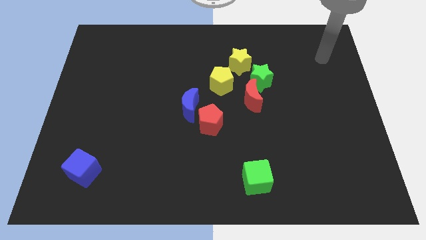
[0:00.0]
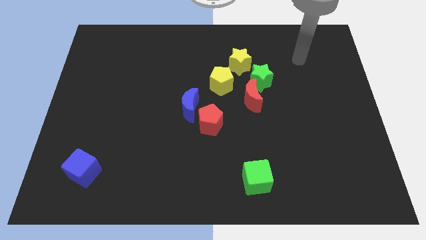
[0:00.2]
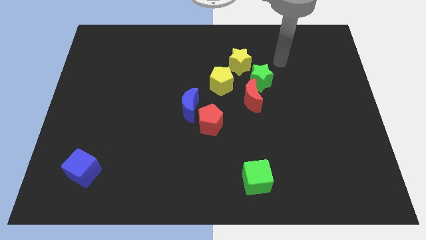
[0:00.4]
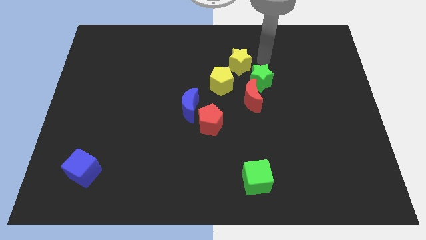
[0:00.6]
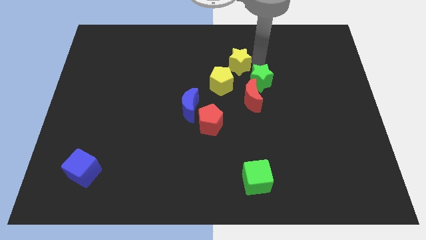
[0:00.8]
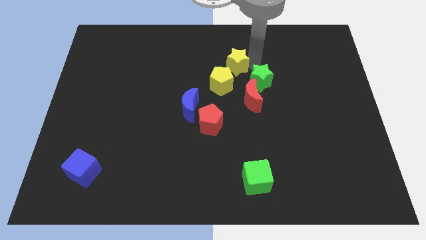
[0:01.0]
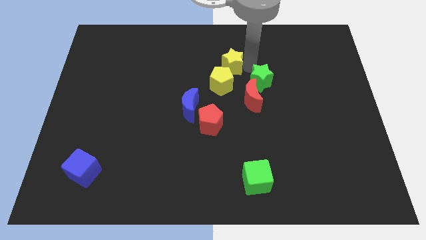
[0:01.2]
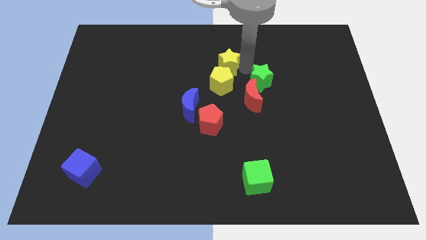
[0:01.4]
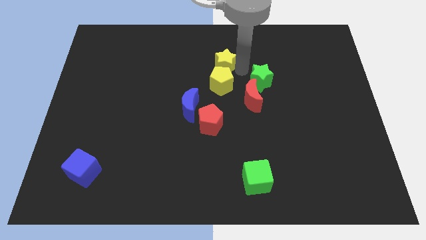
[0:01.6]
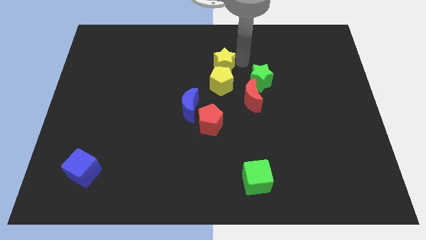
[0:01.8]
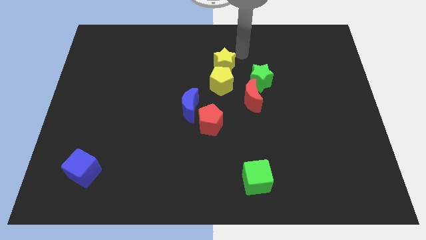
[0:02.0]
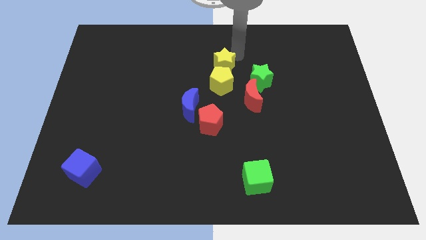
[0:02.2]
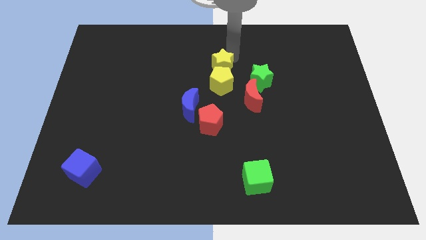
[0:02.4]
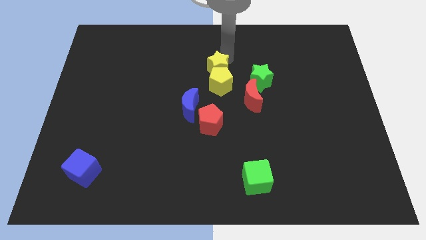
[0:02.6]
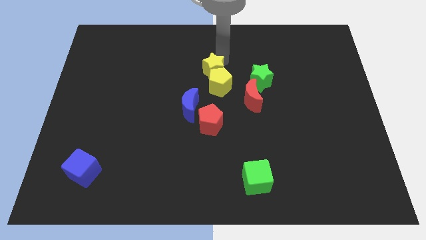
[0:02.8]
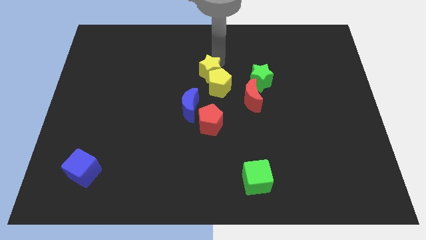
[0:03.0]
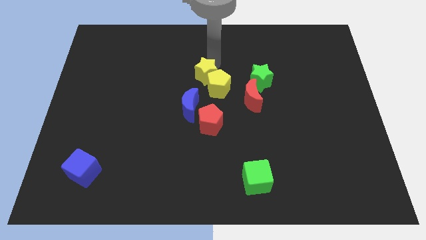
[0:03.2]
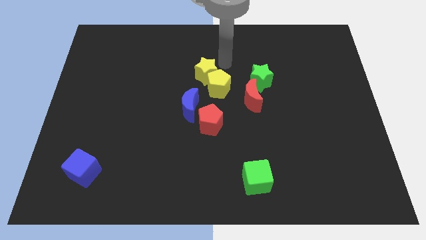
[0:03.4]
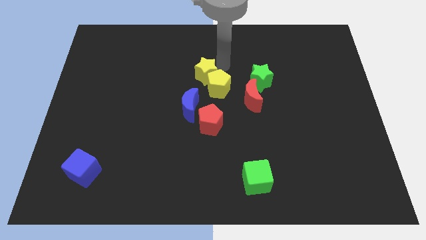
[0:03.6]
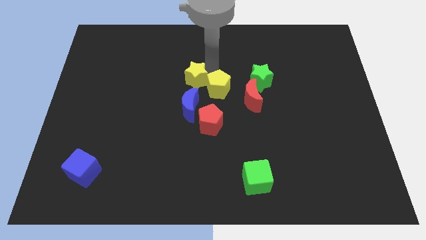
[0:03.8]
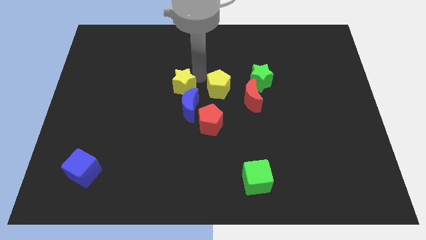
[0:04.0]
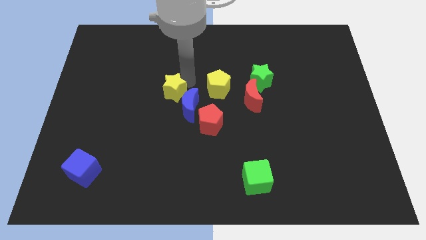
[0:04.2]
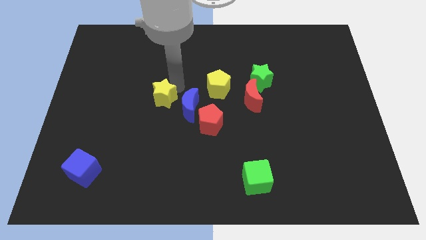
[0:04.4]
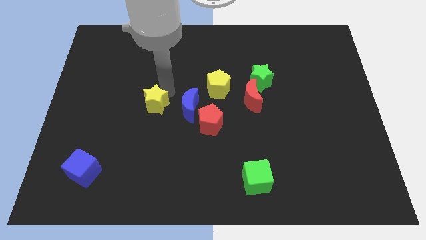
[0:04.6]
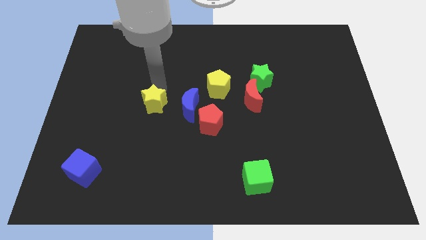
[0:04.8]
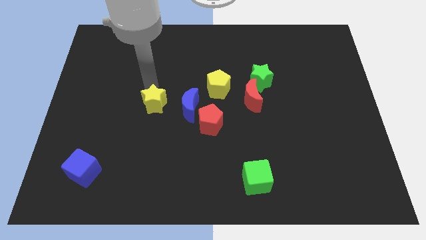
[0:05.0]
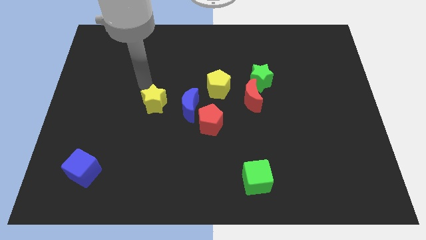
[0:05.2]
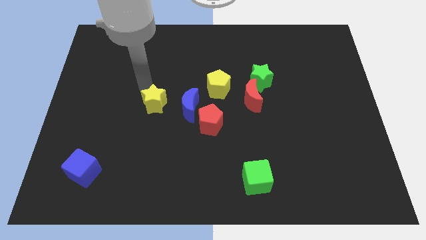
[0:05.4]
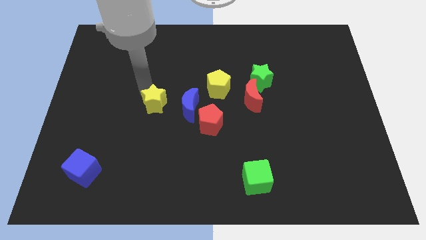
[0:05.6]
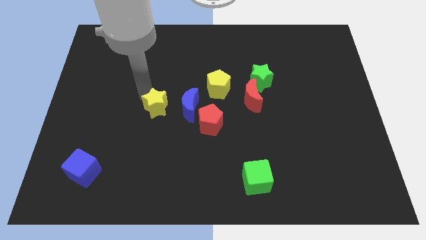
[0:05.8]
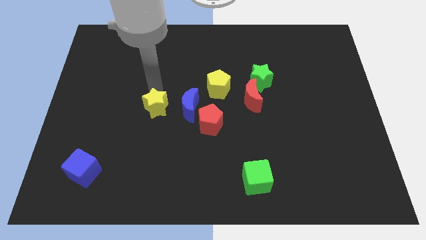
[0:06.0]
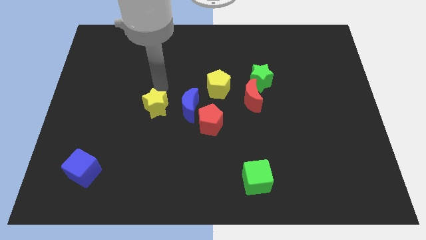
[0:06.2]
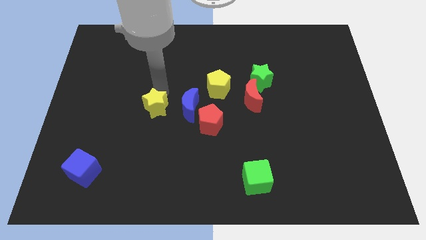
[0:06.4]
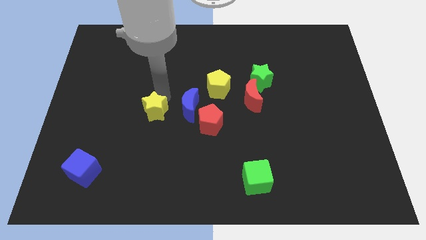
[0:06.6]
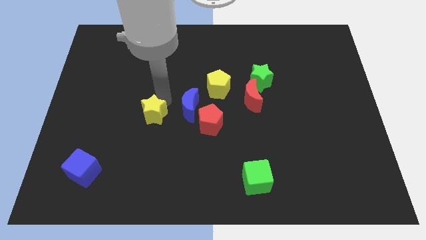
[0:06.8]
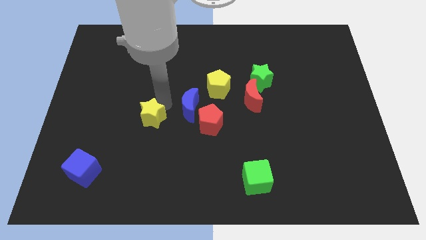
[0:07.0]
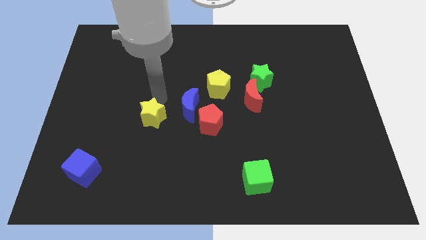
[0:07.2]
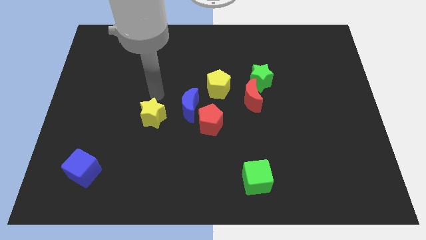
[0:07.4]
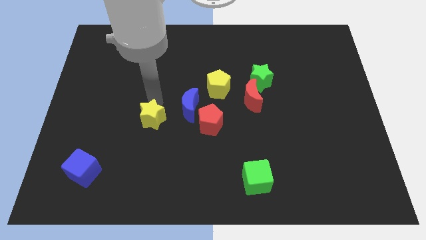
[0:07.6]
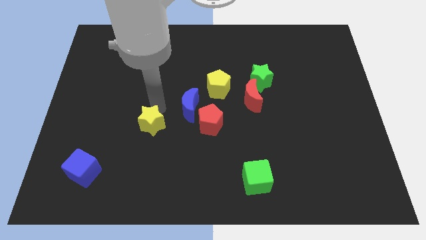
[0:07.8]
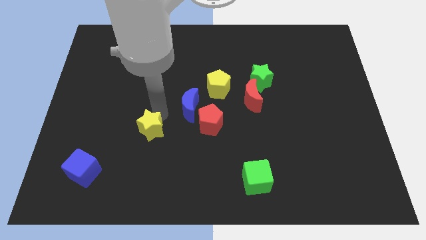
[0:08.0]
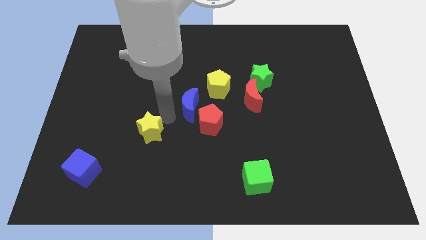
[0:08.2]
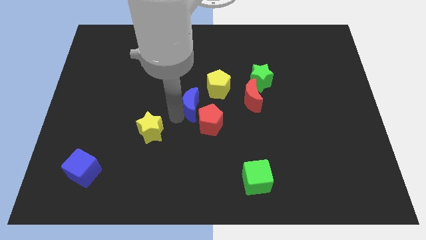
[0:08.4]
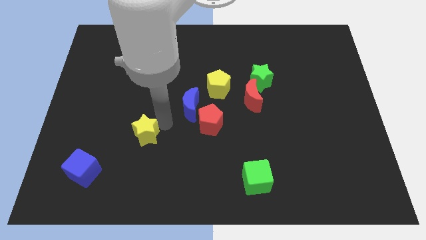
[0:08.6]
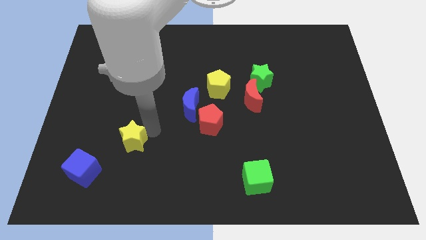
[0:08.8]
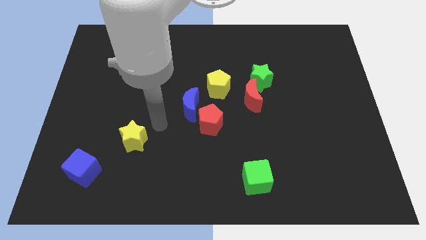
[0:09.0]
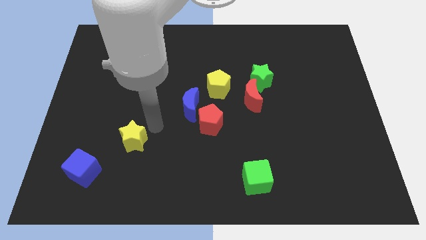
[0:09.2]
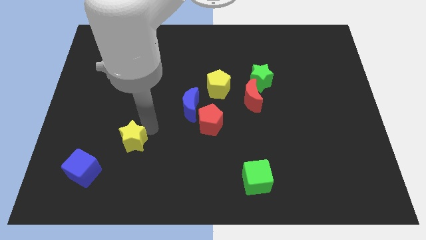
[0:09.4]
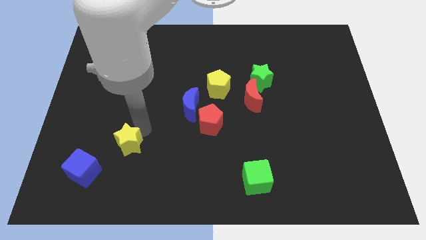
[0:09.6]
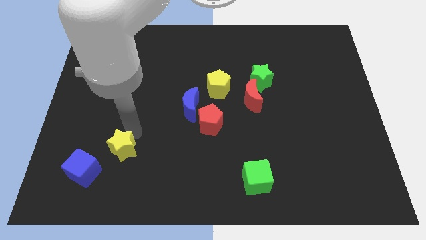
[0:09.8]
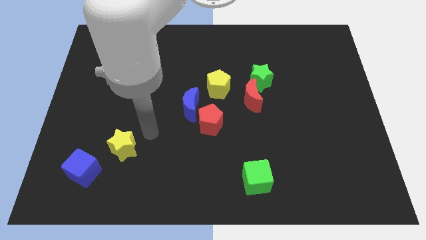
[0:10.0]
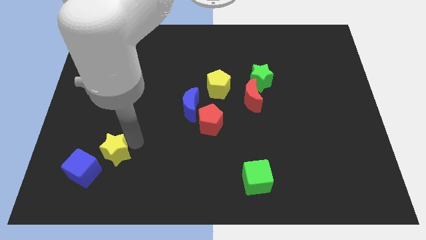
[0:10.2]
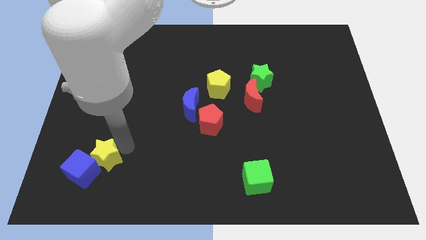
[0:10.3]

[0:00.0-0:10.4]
move the yellow star next to the blue cube

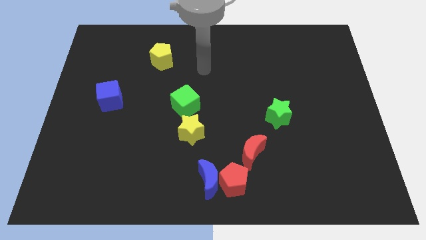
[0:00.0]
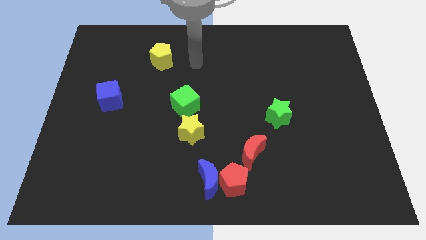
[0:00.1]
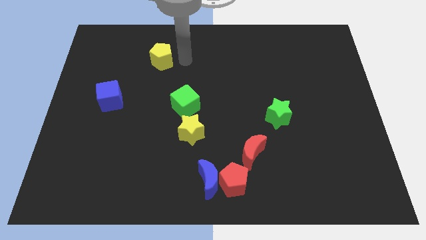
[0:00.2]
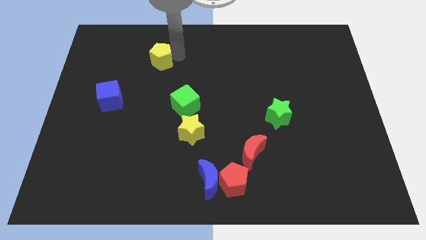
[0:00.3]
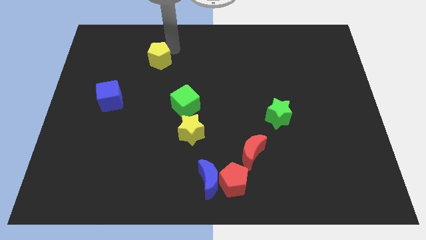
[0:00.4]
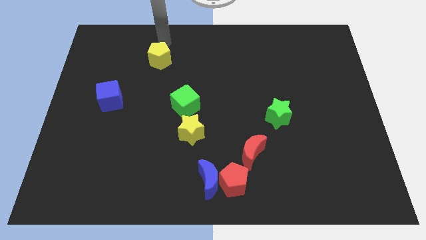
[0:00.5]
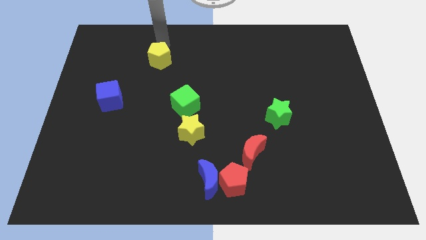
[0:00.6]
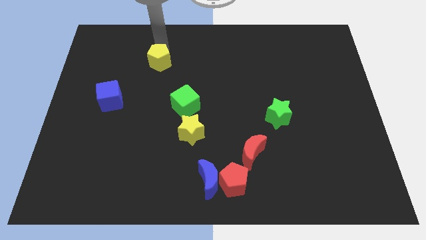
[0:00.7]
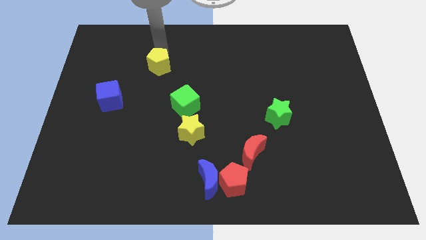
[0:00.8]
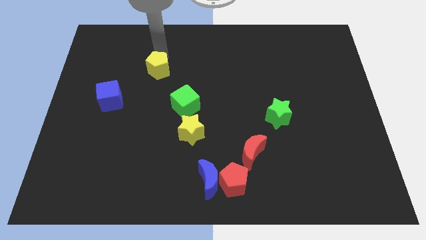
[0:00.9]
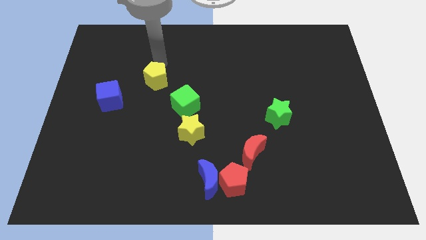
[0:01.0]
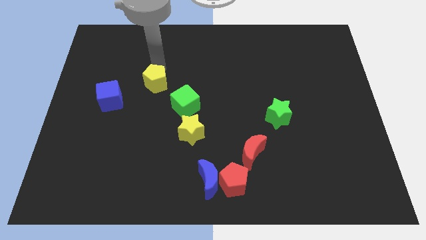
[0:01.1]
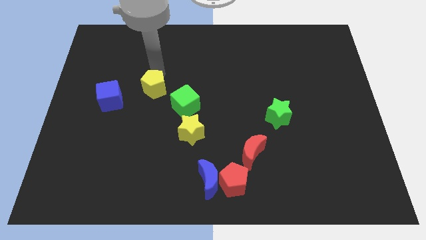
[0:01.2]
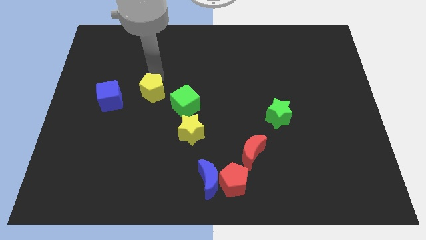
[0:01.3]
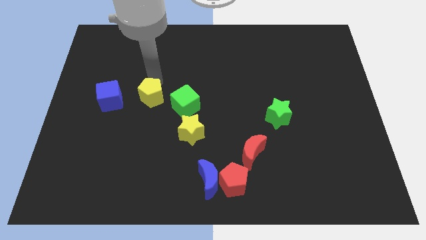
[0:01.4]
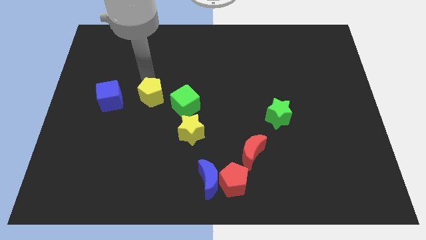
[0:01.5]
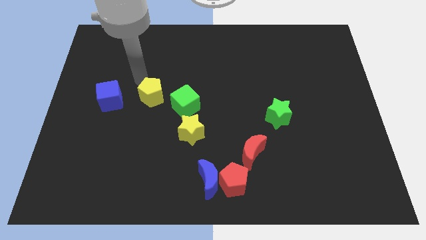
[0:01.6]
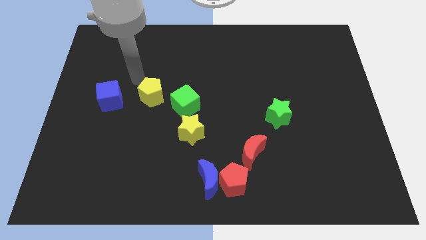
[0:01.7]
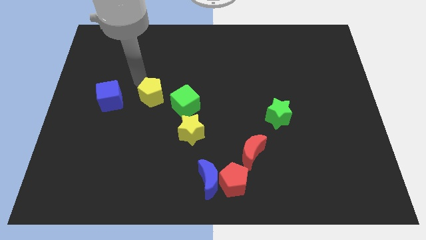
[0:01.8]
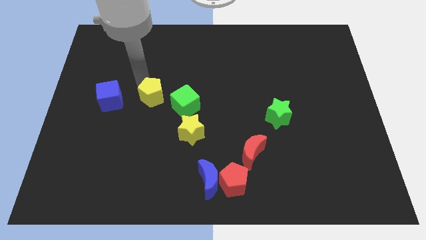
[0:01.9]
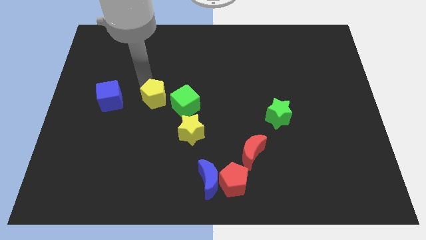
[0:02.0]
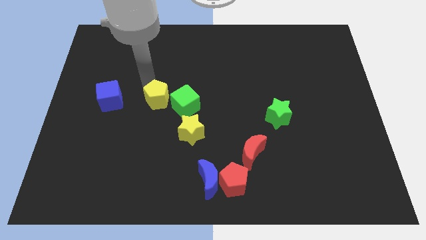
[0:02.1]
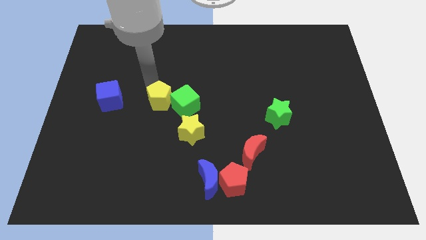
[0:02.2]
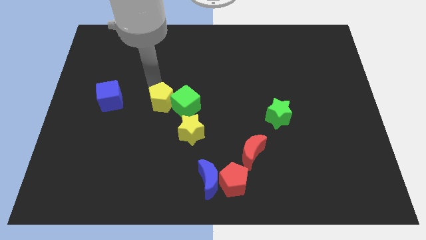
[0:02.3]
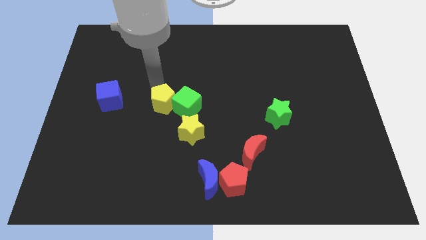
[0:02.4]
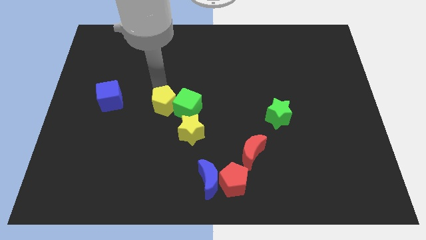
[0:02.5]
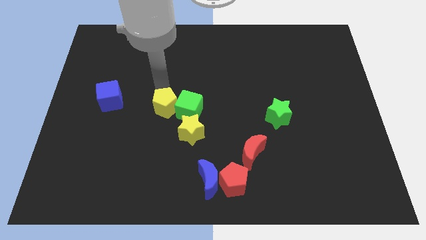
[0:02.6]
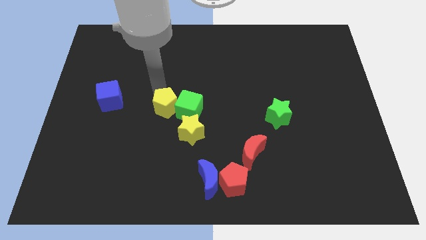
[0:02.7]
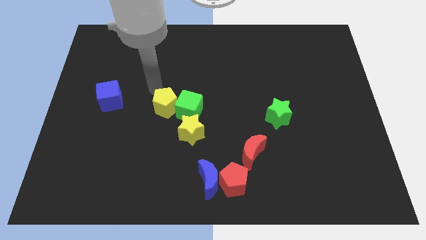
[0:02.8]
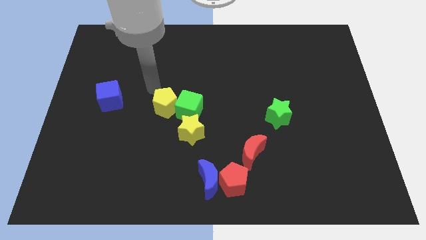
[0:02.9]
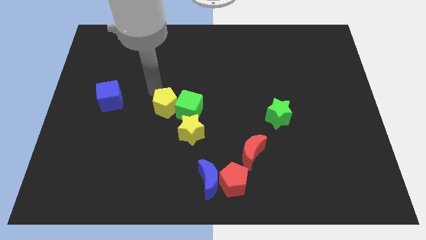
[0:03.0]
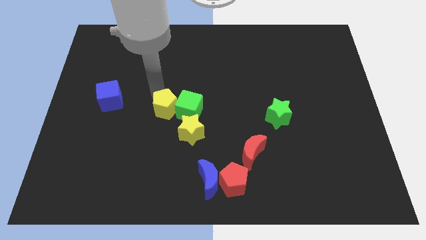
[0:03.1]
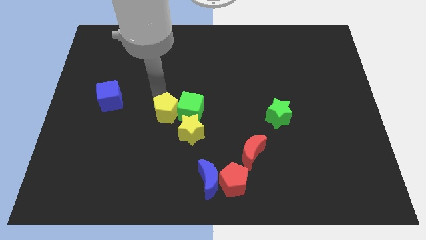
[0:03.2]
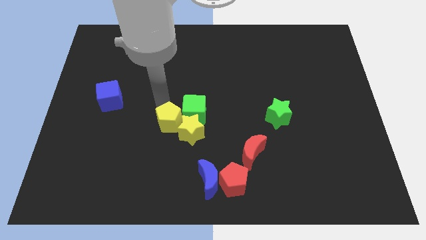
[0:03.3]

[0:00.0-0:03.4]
move the yellow pentagon to the yellow star
